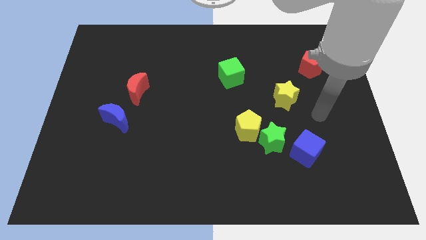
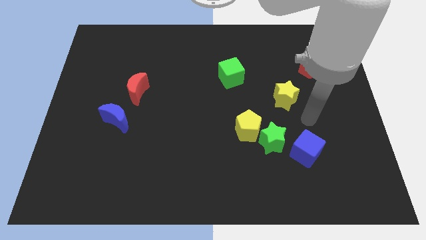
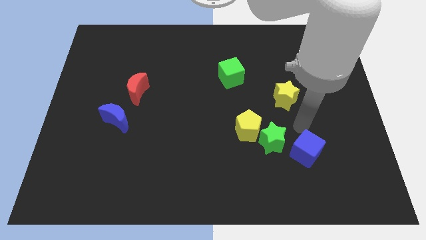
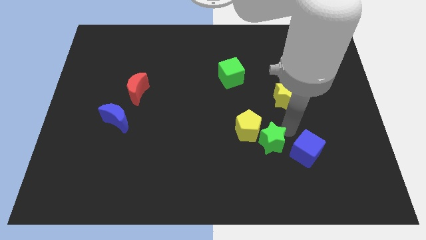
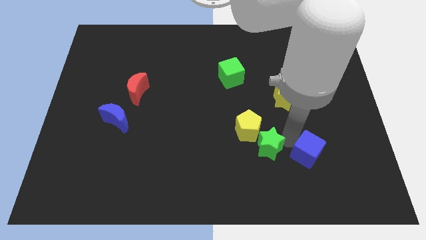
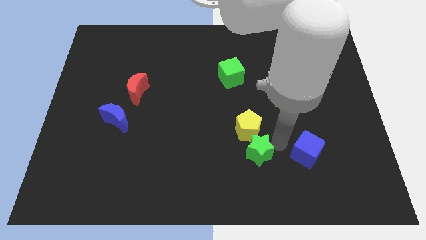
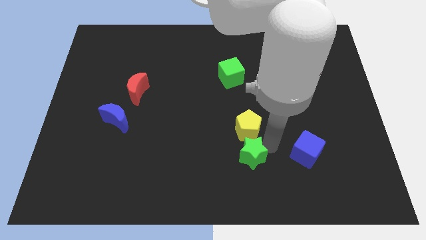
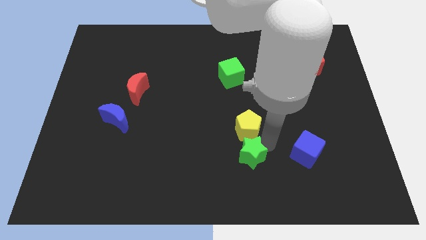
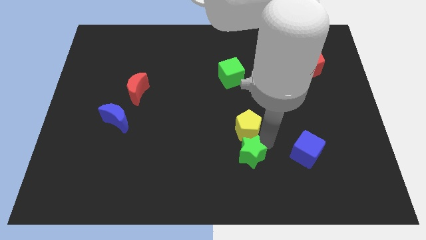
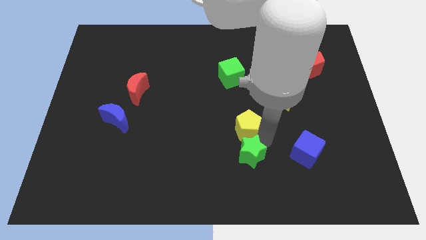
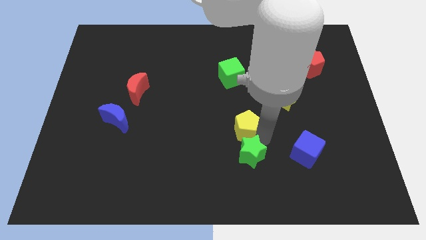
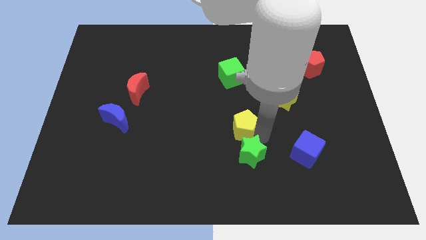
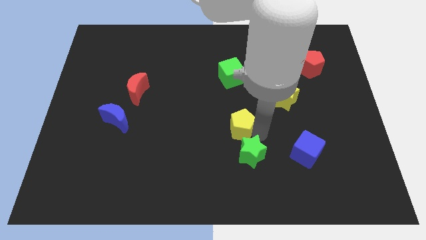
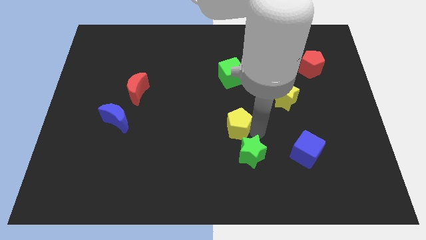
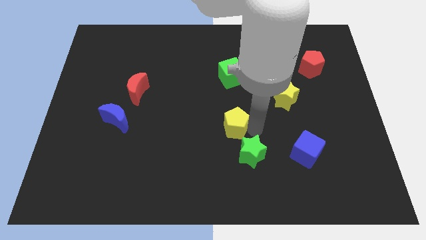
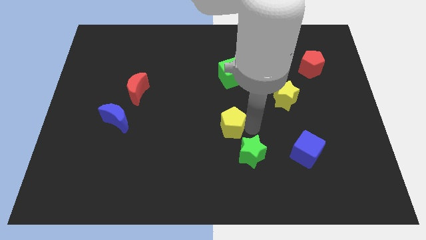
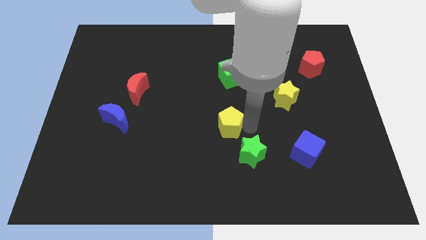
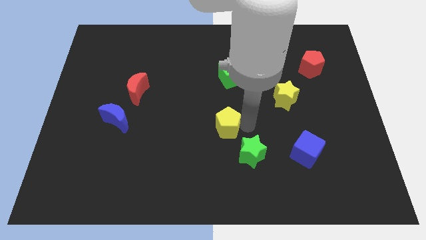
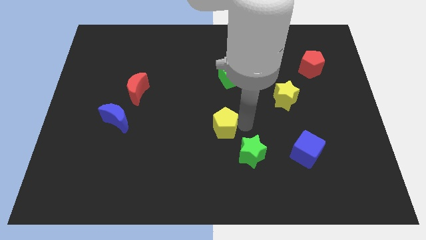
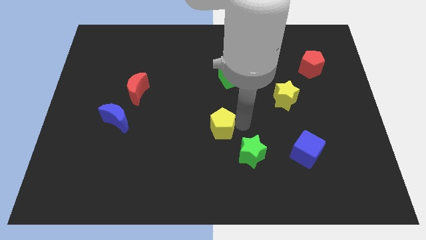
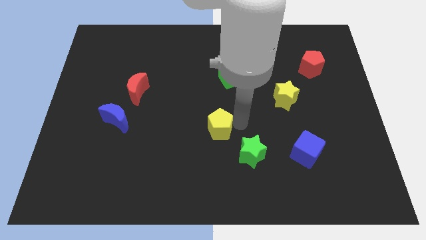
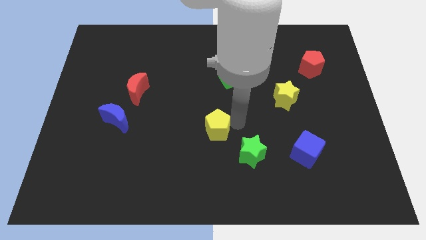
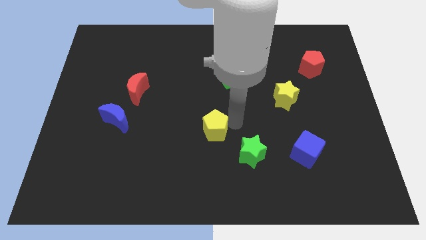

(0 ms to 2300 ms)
separate the yellow pentagon from the green star

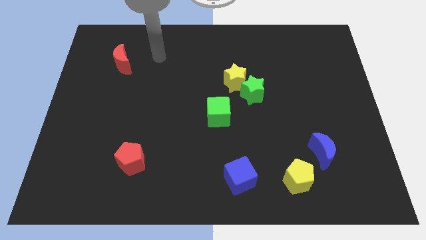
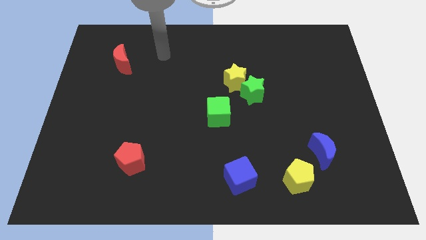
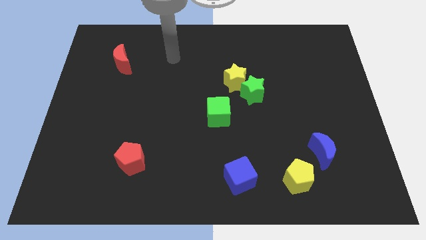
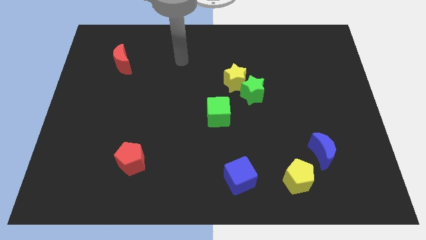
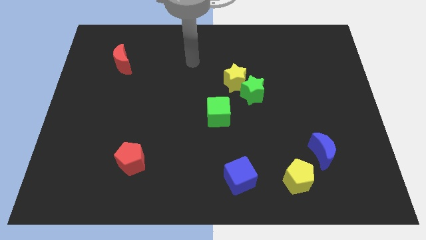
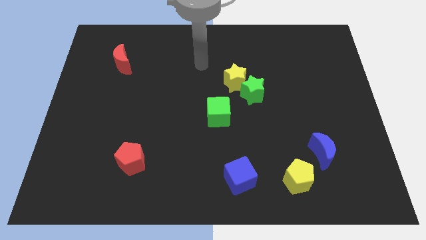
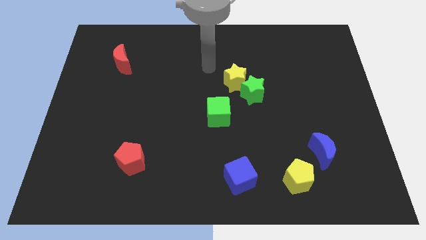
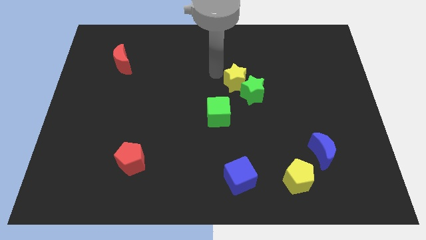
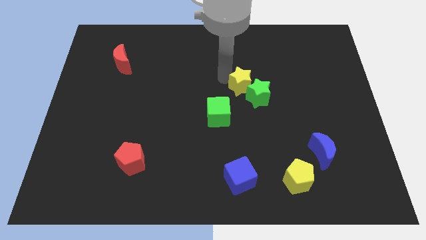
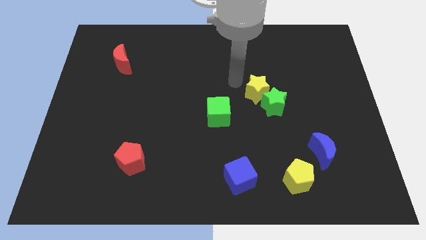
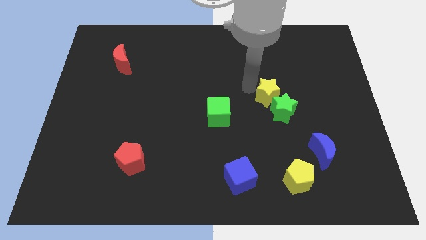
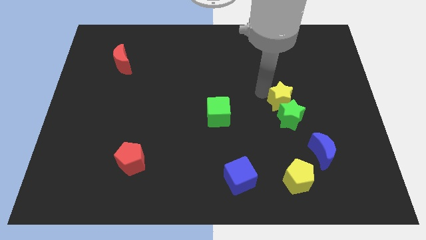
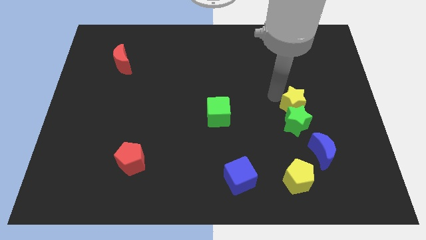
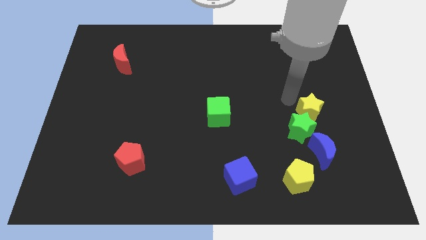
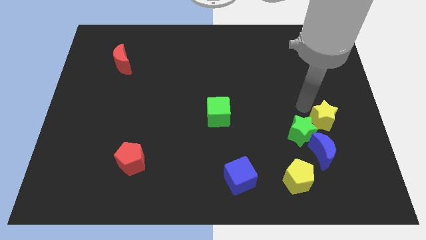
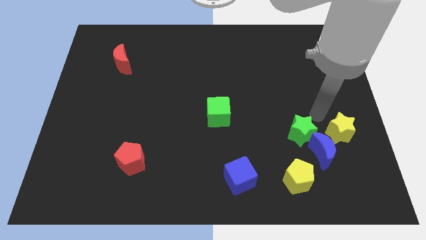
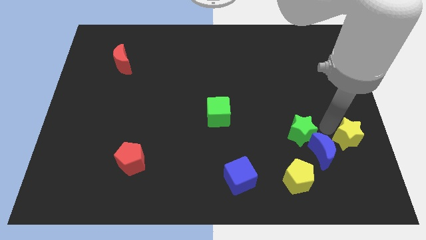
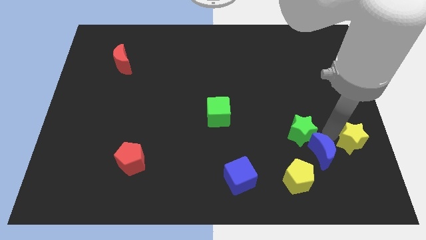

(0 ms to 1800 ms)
separate the green star from the yellow star

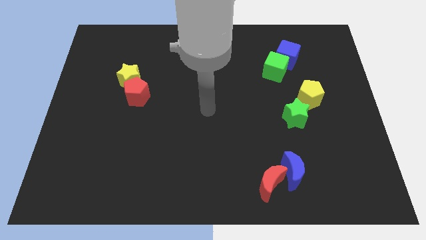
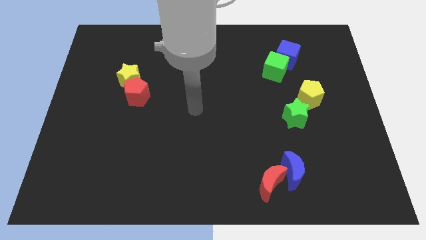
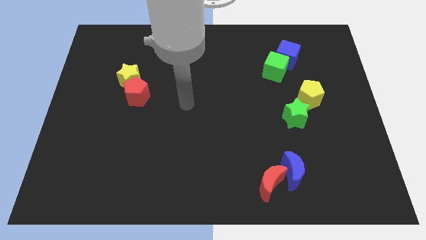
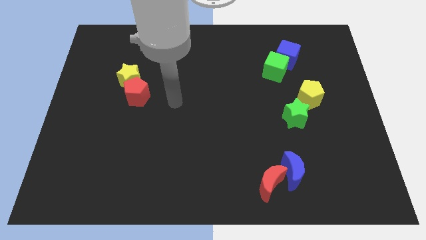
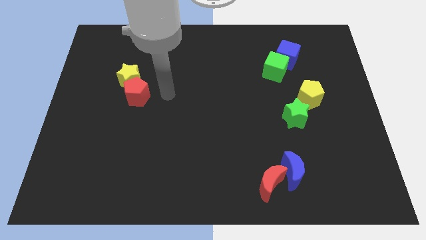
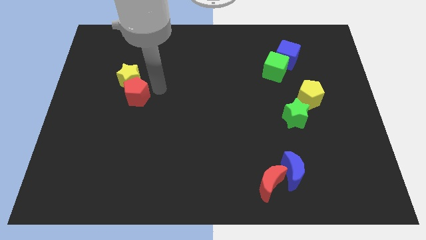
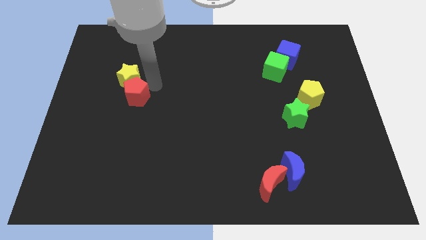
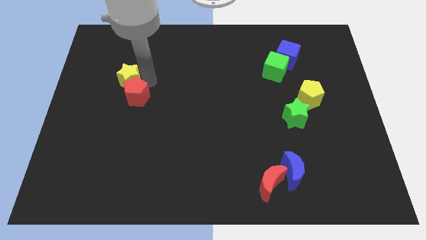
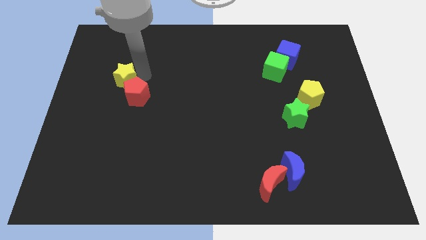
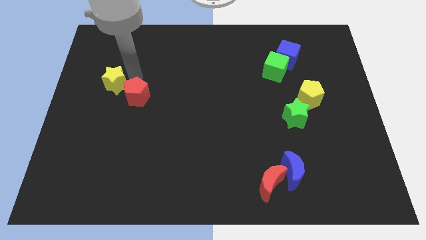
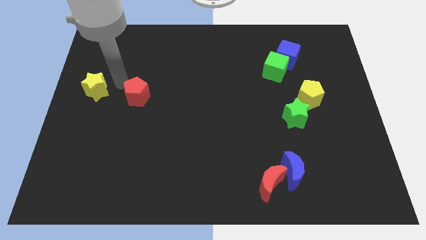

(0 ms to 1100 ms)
separate the red pentagon from the yellow star

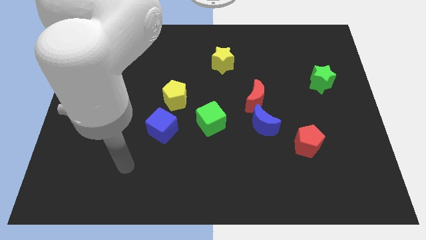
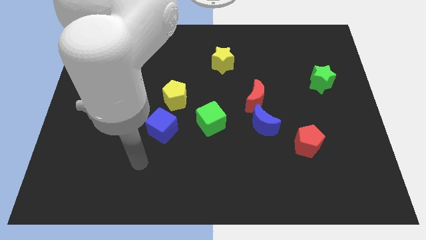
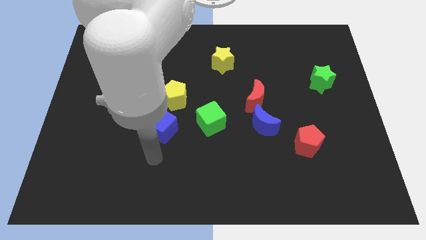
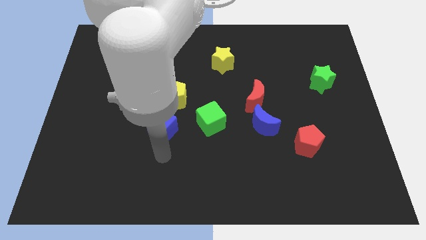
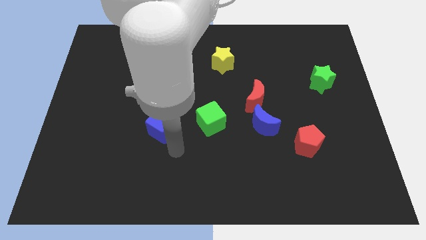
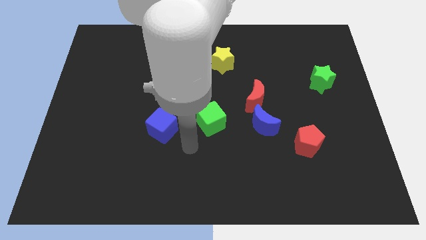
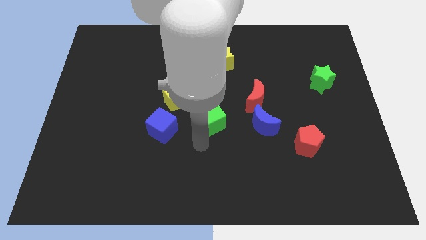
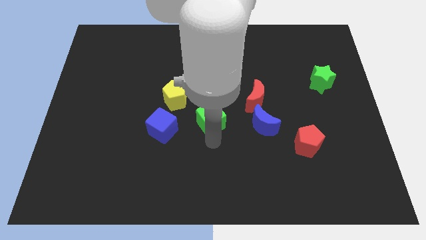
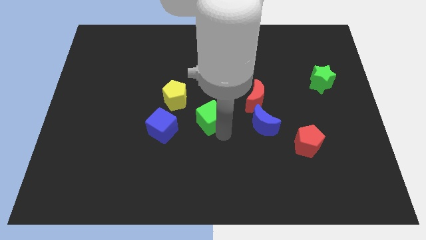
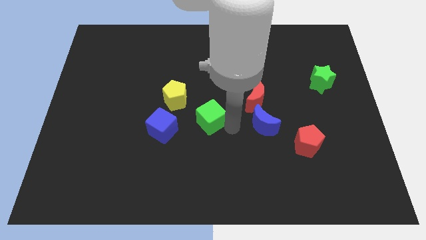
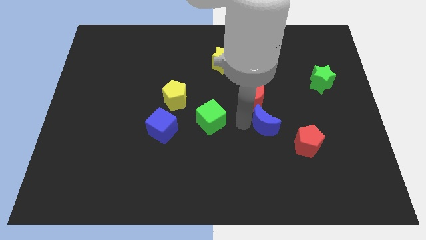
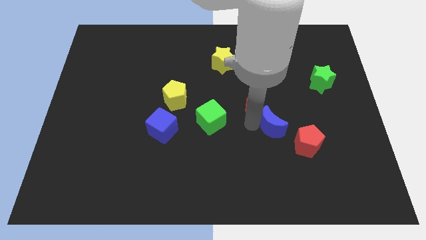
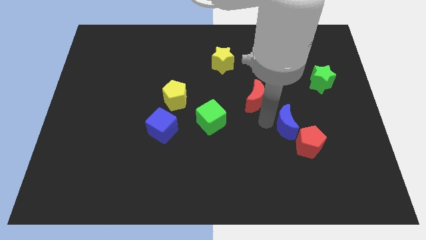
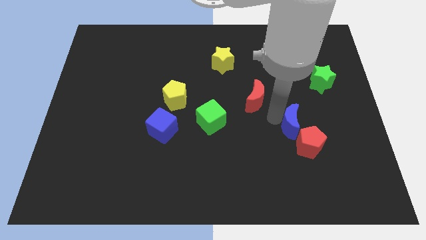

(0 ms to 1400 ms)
separate the red moon from the blue moon

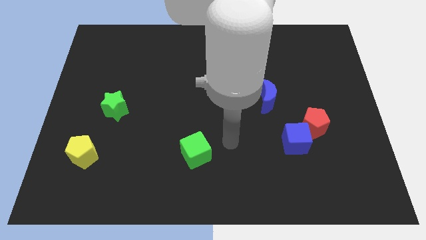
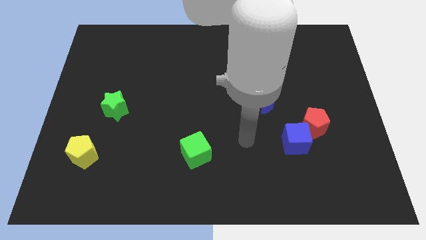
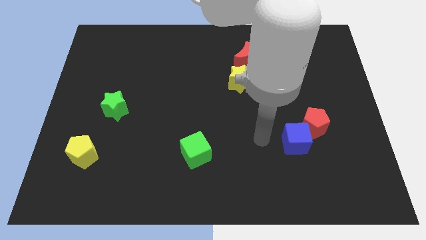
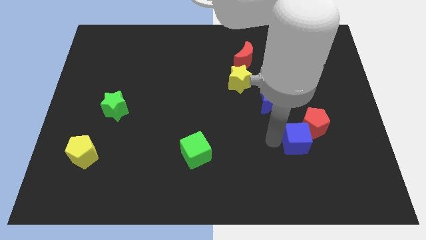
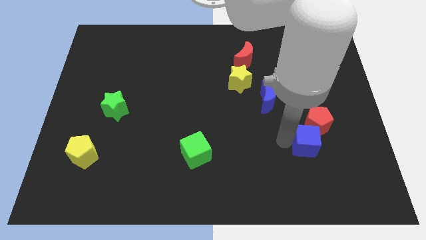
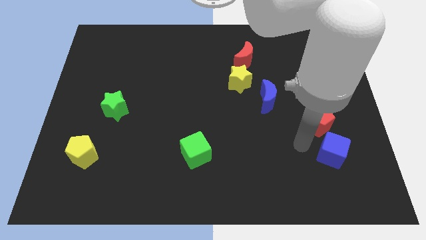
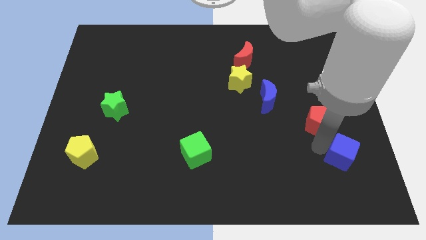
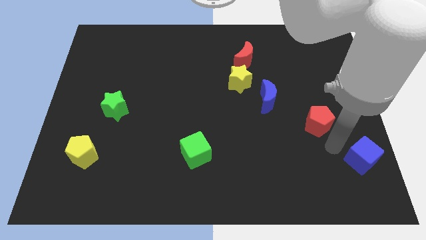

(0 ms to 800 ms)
separate the red pentagon from the blue cube

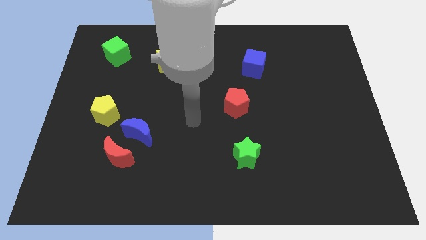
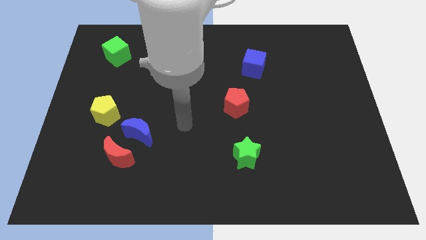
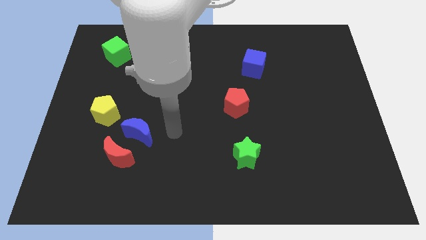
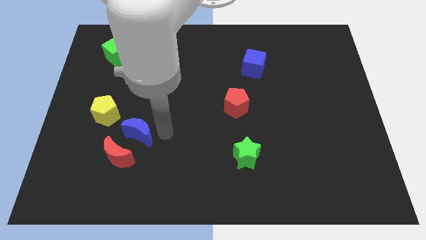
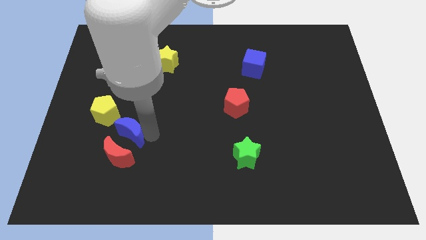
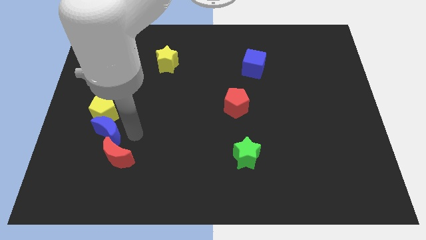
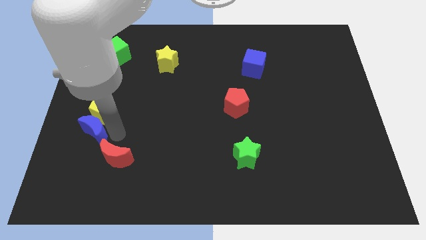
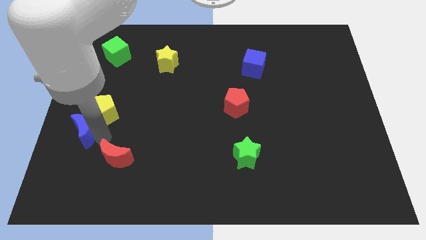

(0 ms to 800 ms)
move the red moon away from the blue moon

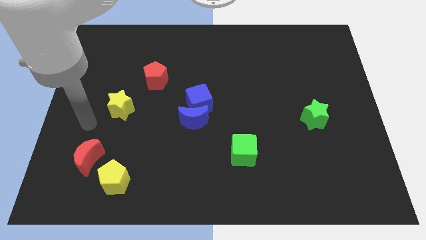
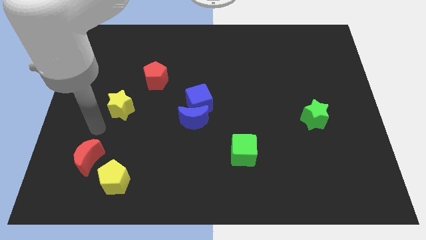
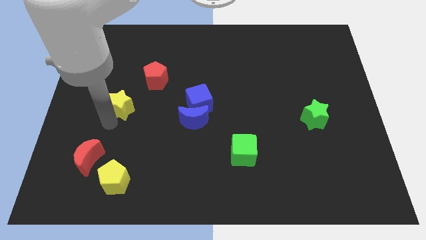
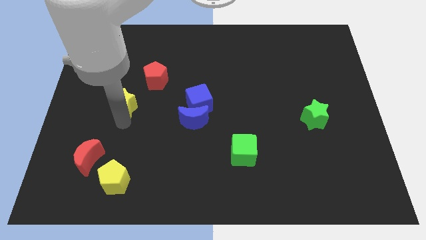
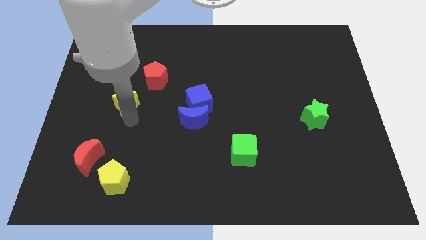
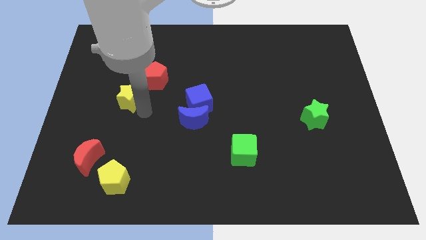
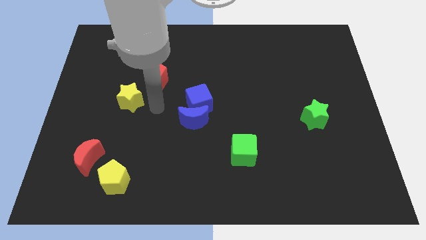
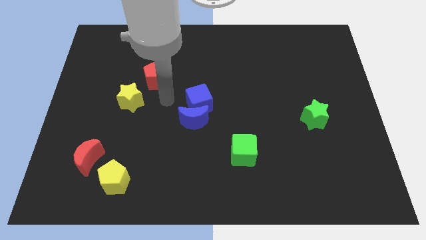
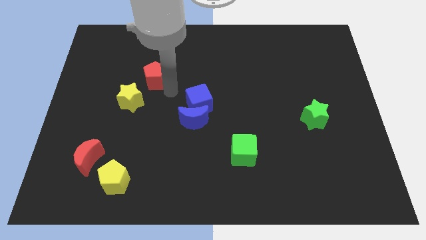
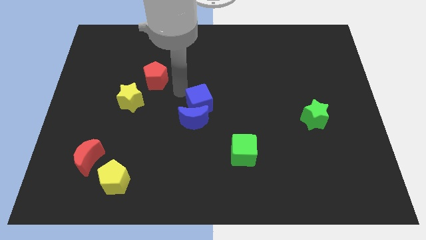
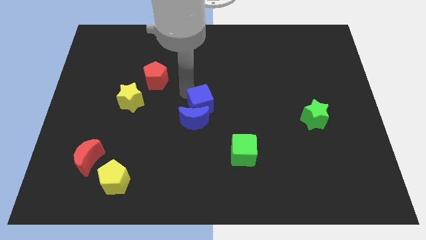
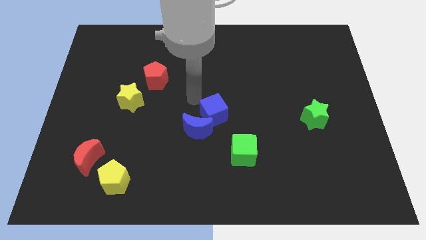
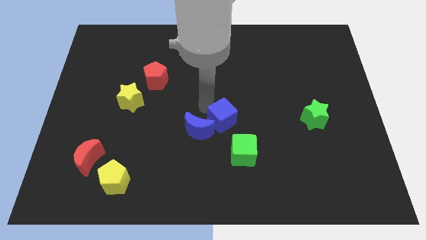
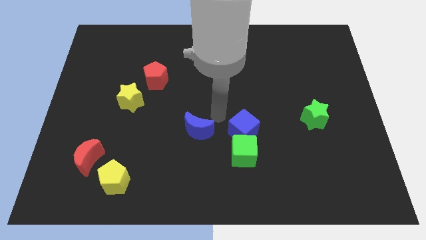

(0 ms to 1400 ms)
move the blue moon away from the blue cube
